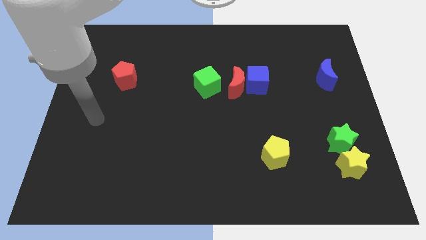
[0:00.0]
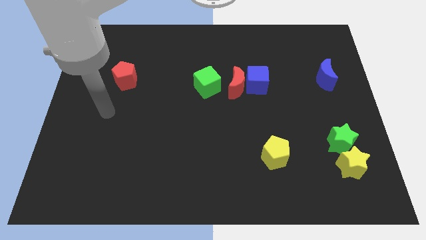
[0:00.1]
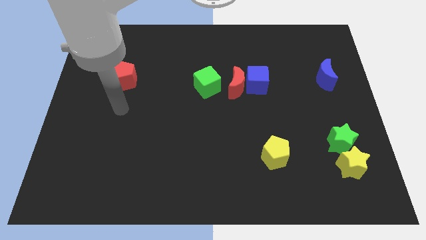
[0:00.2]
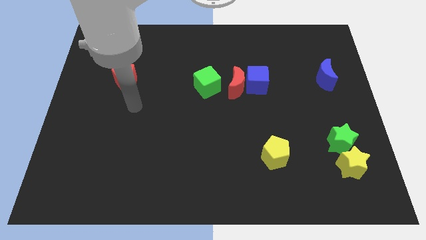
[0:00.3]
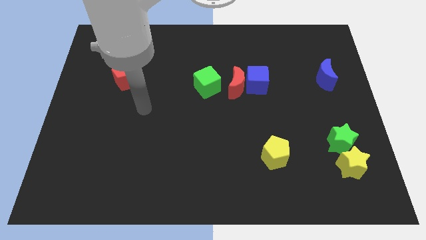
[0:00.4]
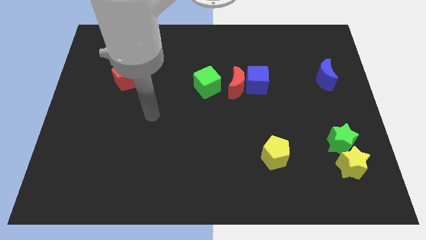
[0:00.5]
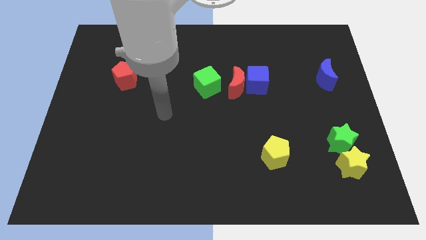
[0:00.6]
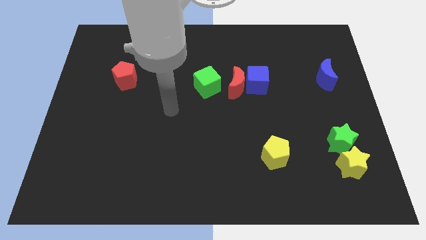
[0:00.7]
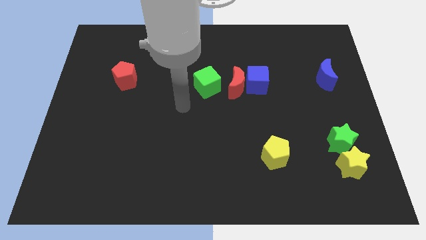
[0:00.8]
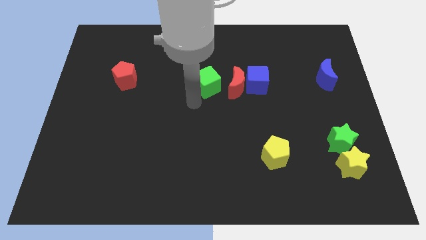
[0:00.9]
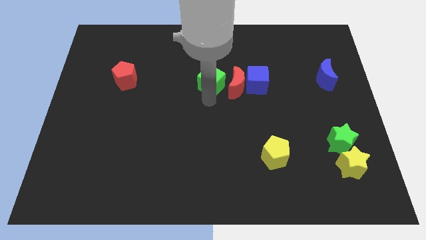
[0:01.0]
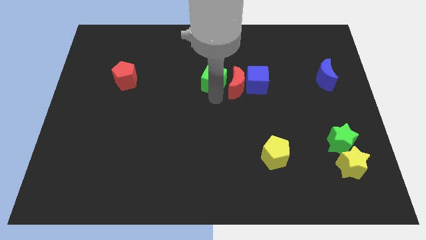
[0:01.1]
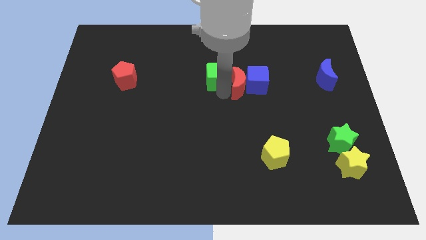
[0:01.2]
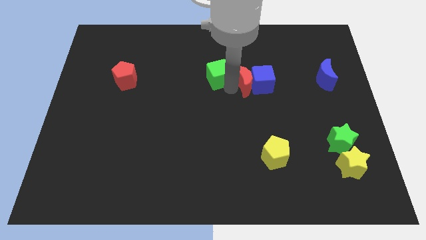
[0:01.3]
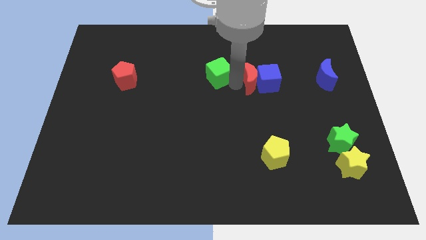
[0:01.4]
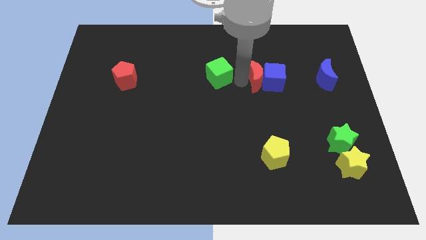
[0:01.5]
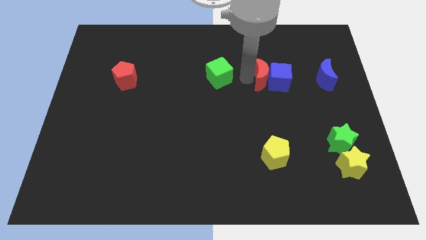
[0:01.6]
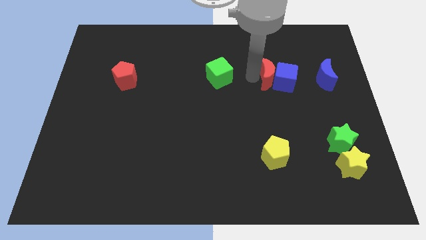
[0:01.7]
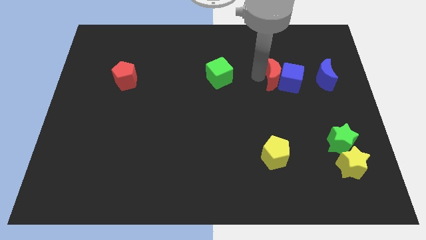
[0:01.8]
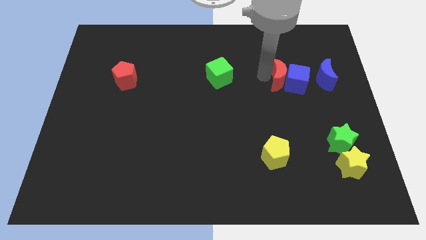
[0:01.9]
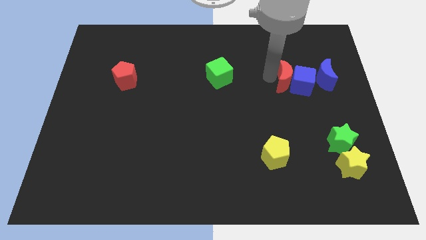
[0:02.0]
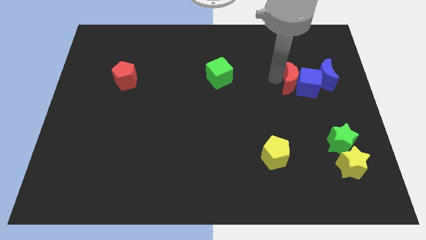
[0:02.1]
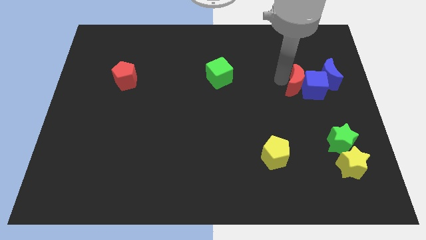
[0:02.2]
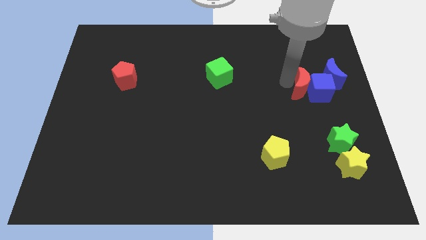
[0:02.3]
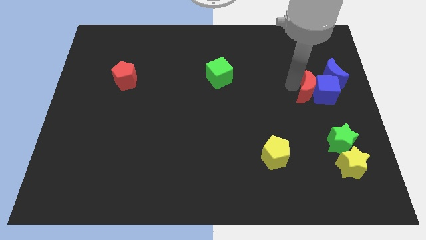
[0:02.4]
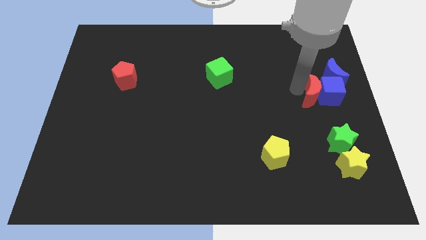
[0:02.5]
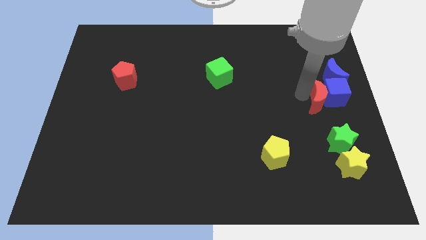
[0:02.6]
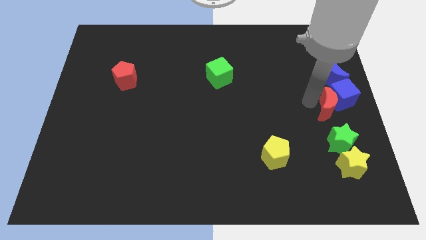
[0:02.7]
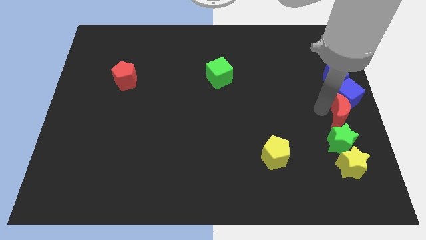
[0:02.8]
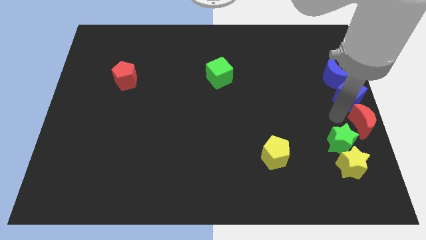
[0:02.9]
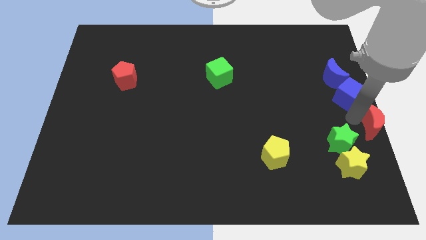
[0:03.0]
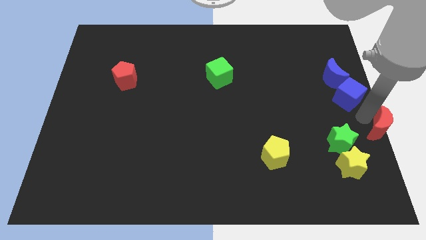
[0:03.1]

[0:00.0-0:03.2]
move the blue cube away from the red moon

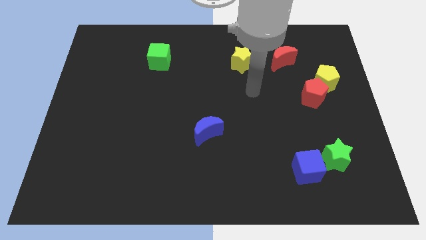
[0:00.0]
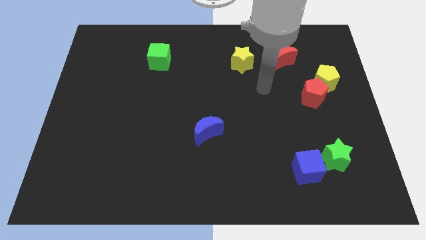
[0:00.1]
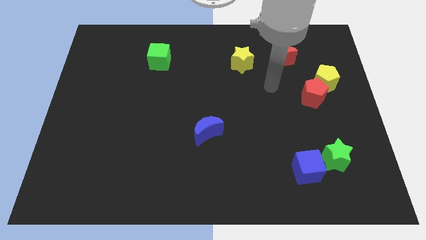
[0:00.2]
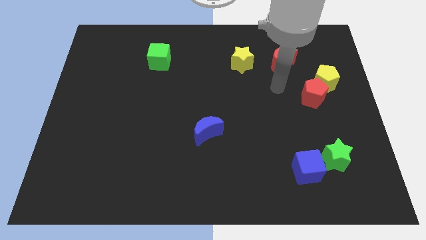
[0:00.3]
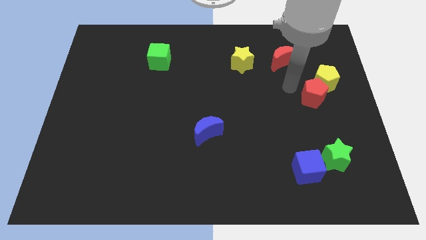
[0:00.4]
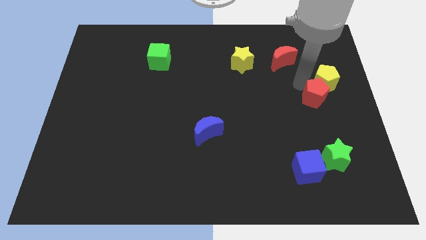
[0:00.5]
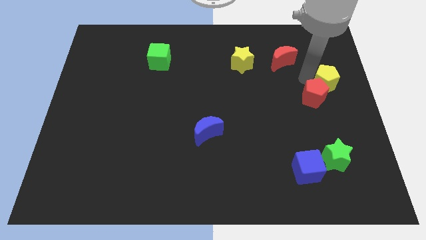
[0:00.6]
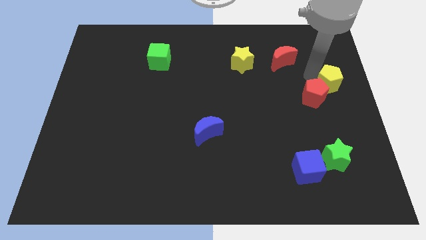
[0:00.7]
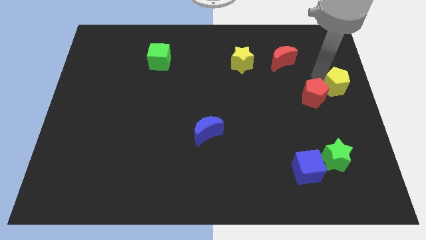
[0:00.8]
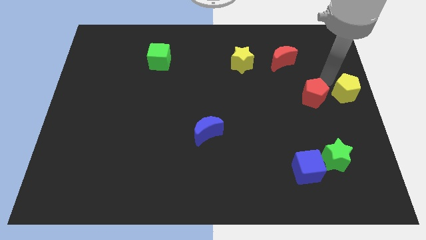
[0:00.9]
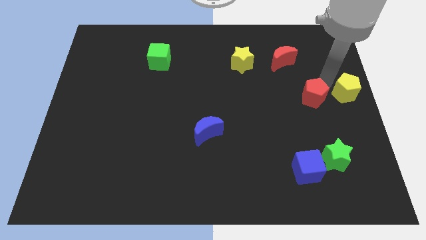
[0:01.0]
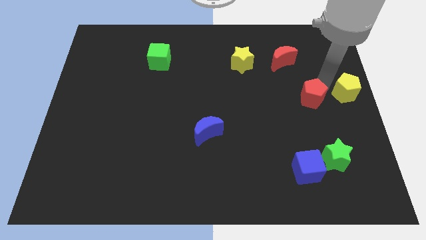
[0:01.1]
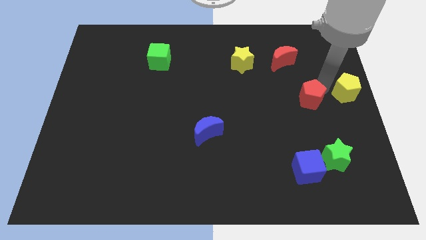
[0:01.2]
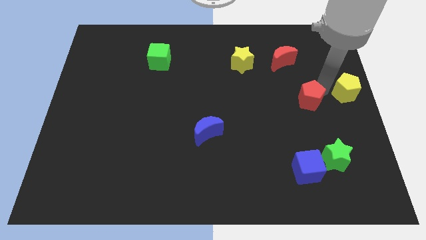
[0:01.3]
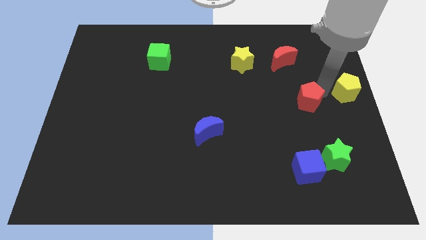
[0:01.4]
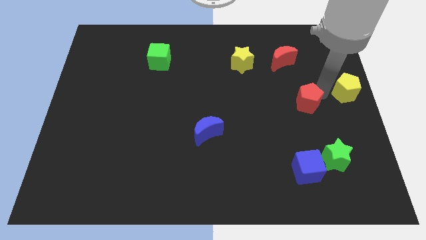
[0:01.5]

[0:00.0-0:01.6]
separate the red pentagon from the yellow pentagon

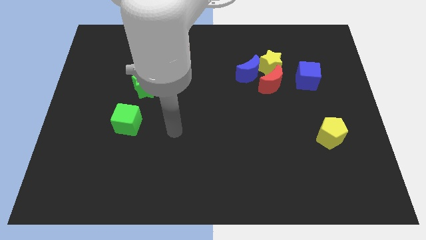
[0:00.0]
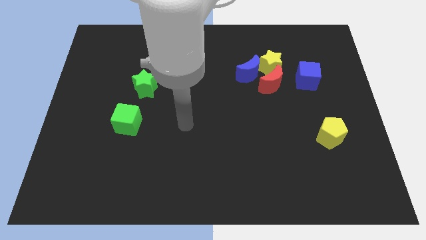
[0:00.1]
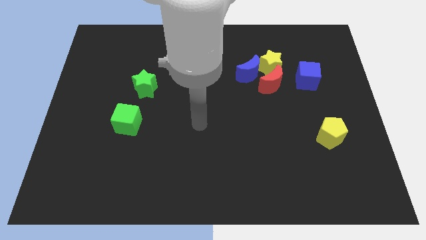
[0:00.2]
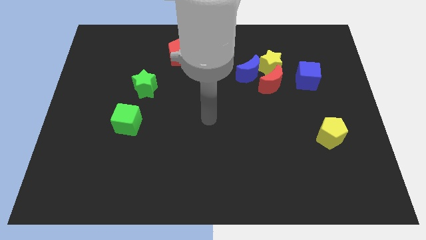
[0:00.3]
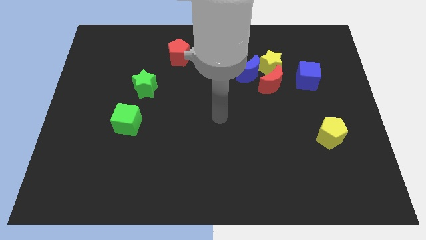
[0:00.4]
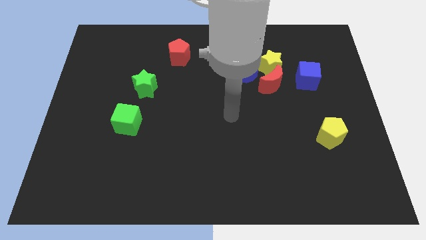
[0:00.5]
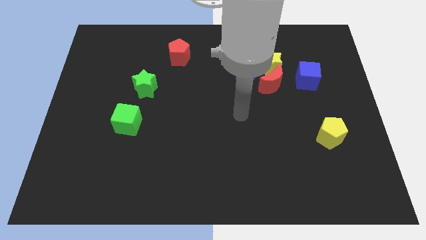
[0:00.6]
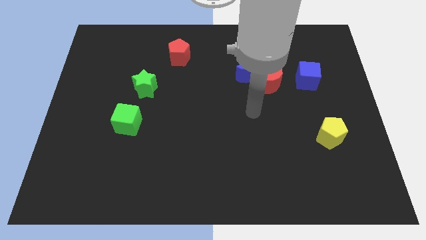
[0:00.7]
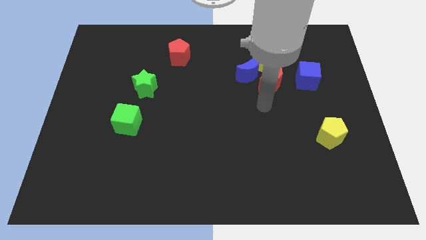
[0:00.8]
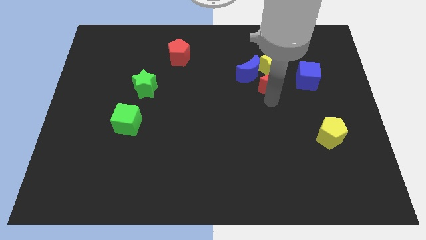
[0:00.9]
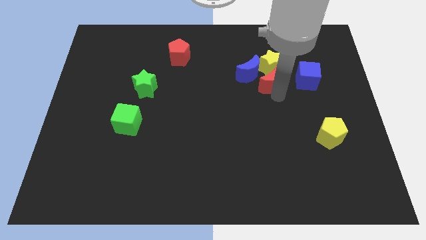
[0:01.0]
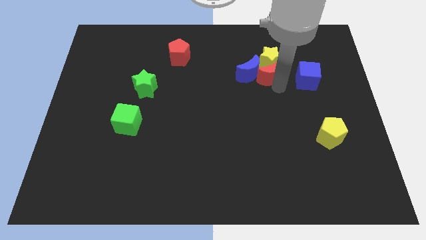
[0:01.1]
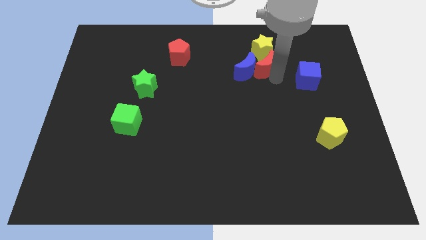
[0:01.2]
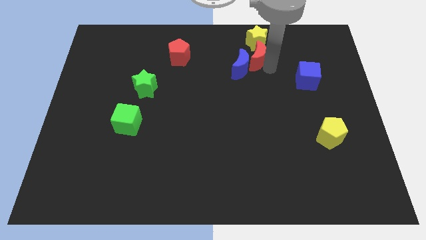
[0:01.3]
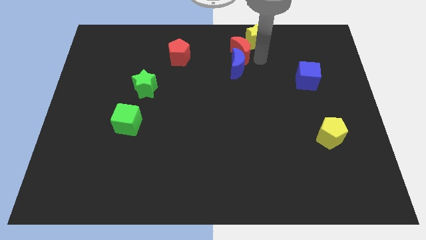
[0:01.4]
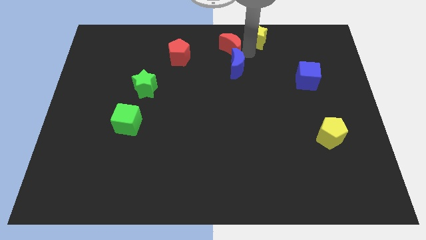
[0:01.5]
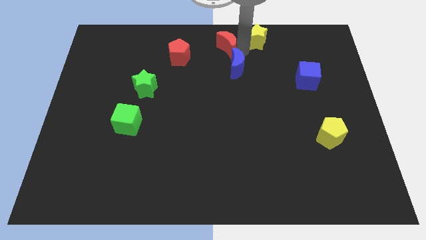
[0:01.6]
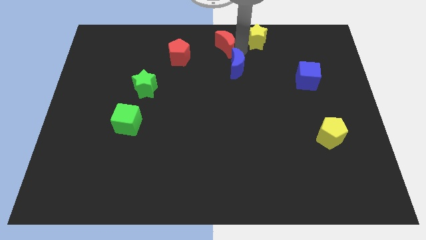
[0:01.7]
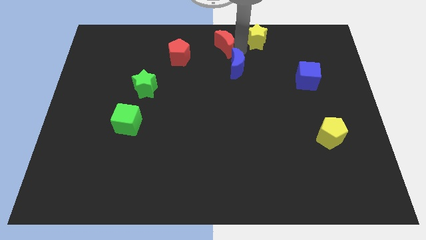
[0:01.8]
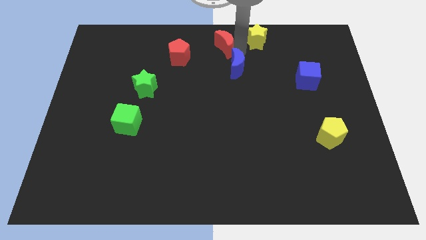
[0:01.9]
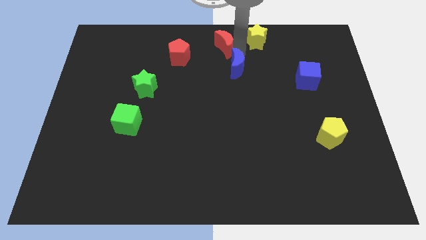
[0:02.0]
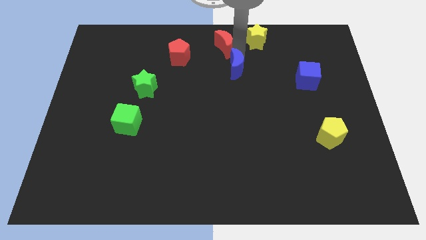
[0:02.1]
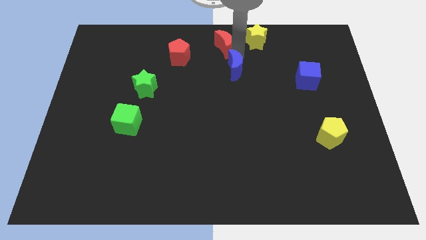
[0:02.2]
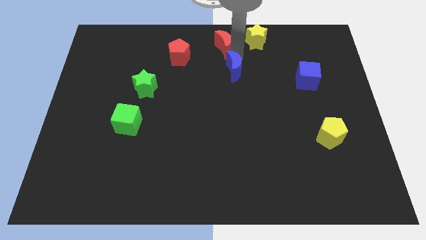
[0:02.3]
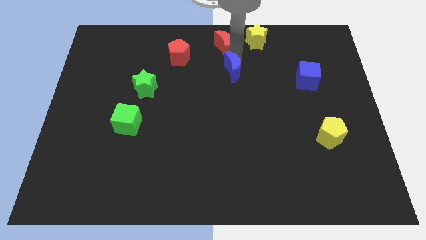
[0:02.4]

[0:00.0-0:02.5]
separate the blue moon from the yellow star and red moon

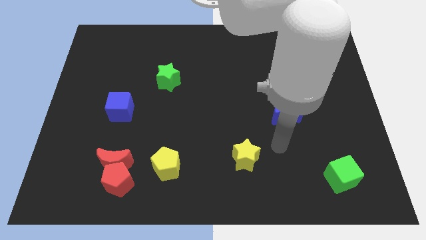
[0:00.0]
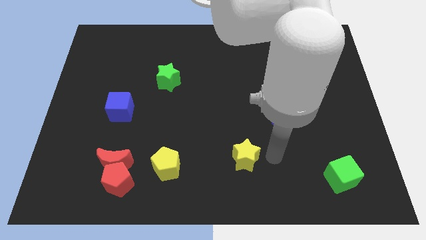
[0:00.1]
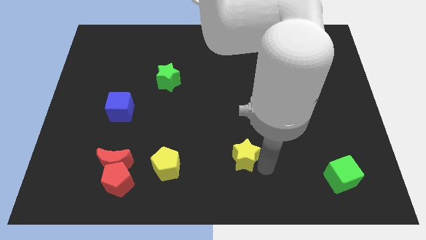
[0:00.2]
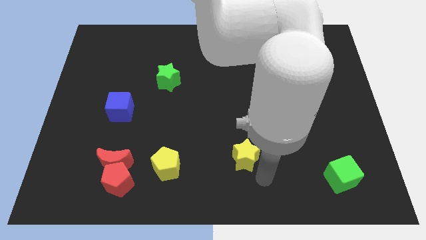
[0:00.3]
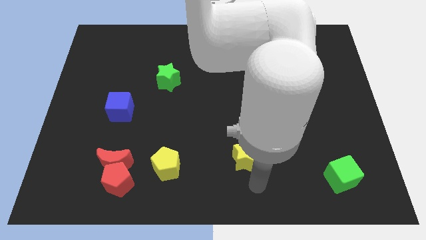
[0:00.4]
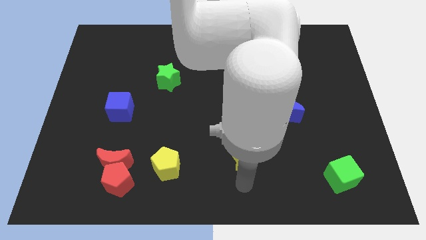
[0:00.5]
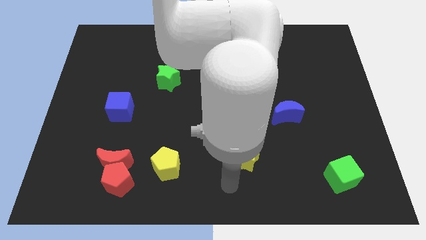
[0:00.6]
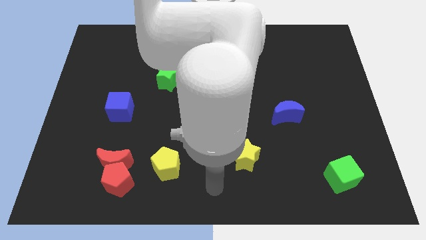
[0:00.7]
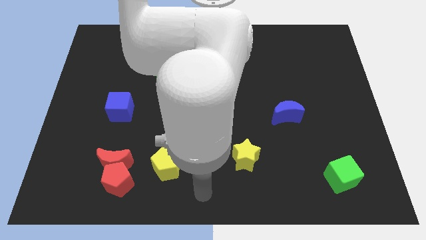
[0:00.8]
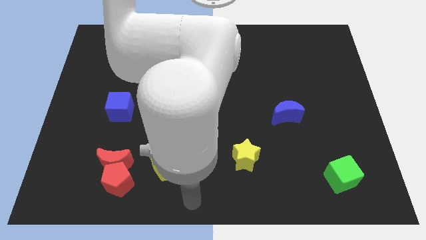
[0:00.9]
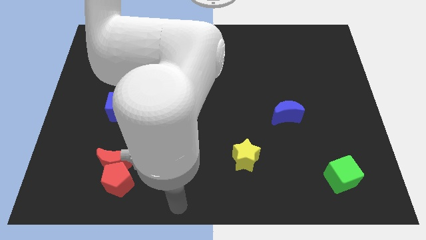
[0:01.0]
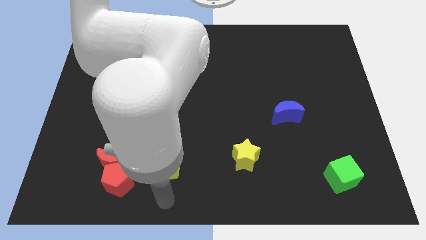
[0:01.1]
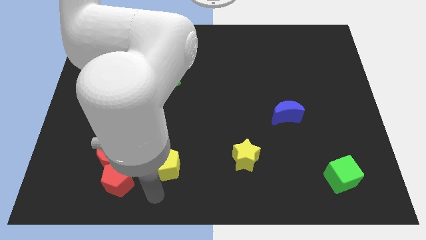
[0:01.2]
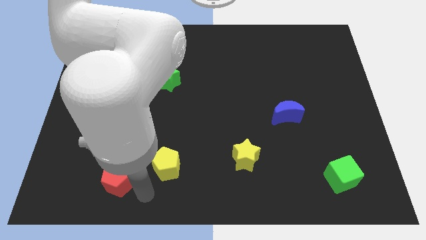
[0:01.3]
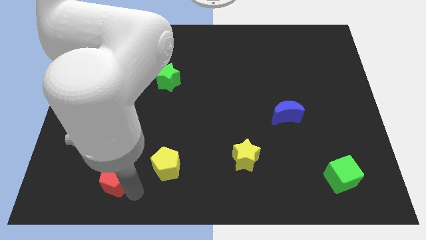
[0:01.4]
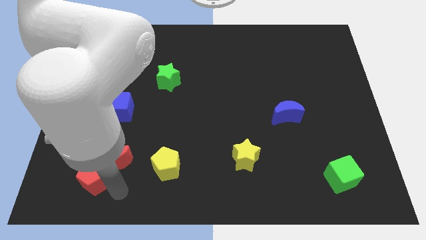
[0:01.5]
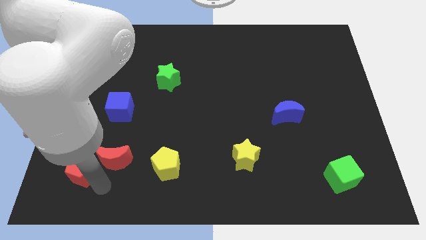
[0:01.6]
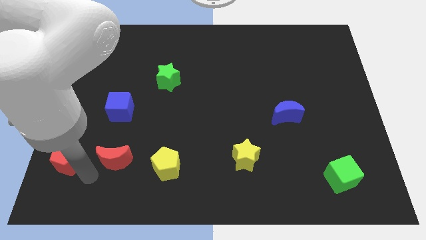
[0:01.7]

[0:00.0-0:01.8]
move the red moon away from the red pentagon

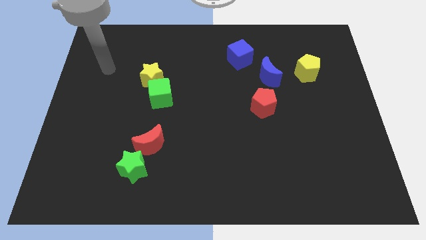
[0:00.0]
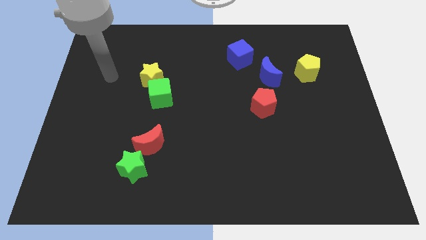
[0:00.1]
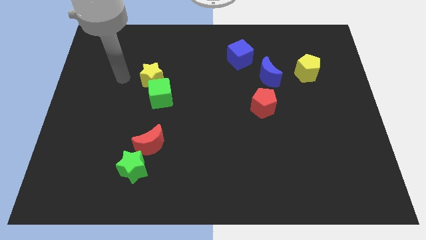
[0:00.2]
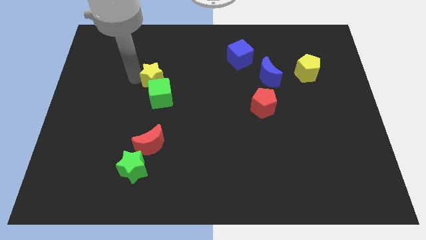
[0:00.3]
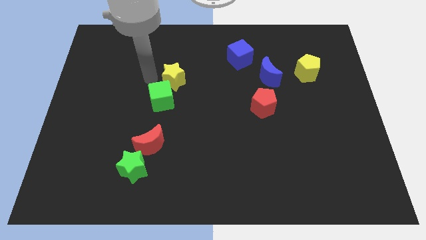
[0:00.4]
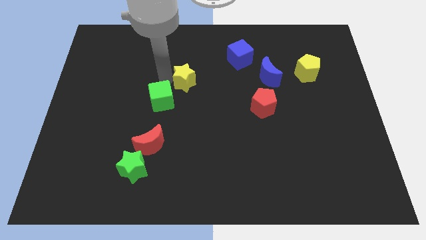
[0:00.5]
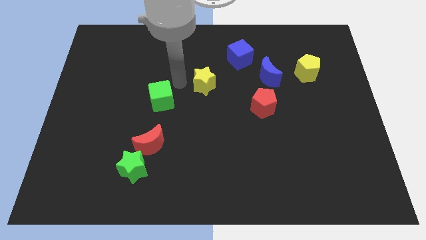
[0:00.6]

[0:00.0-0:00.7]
move the green cube away from the yellow star
